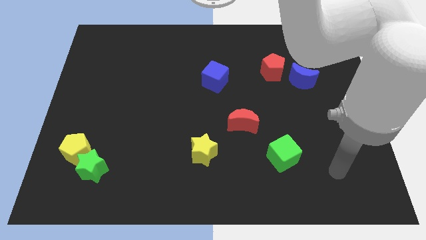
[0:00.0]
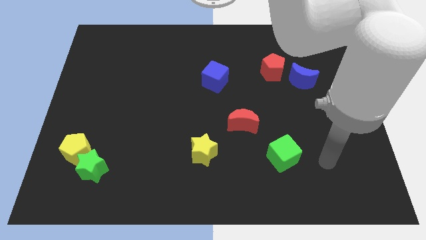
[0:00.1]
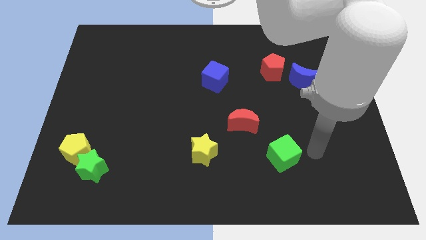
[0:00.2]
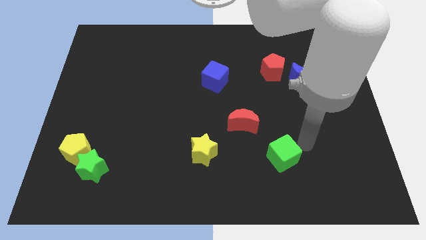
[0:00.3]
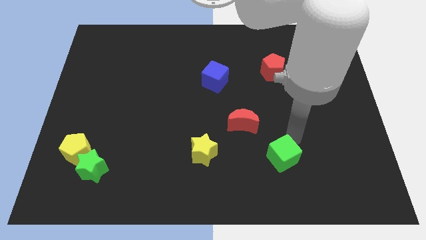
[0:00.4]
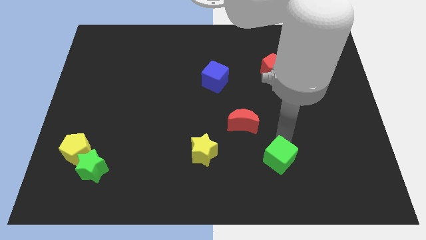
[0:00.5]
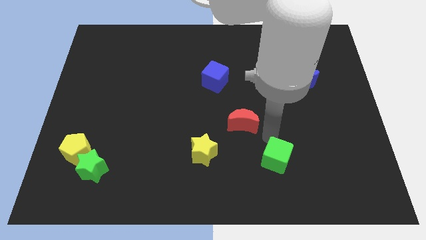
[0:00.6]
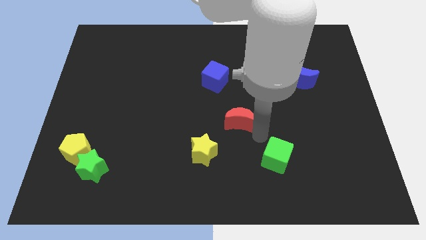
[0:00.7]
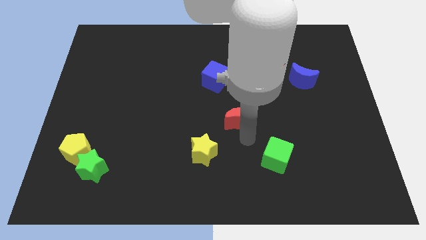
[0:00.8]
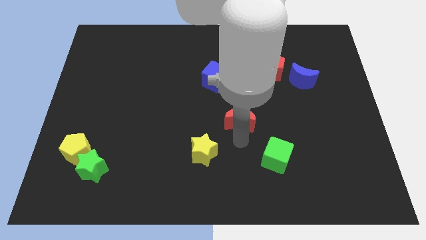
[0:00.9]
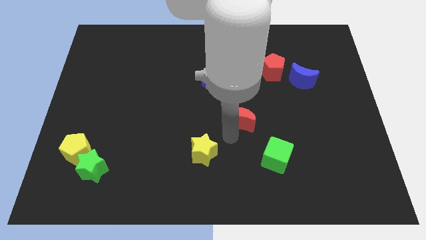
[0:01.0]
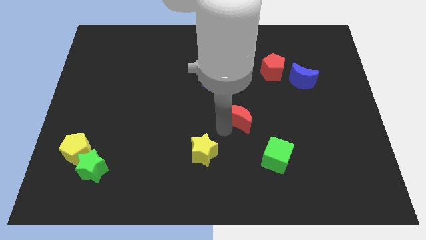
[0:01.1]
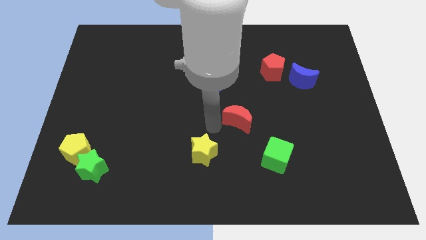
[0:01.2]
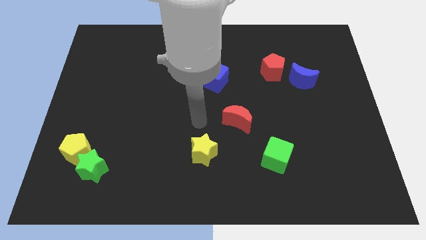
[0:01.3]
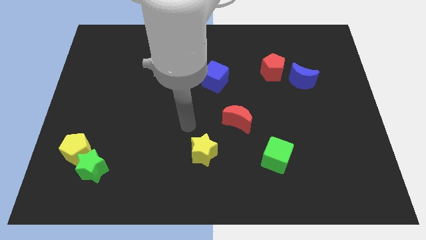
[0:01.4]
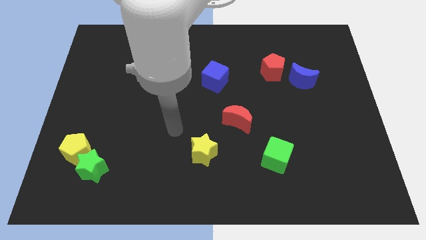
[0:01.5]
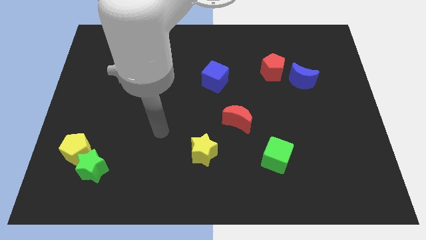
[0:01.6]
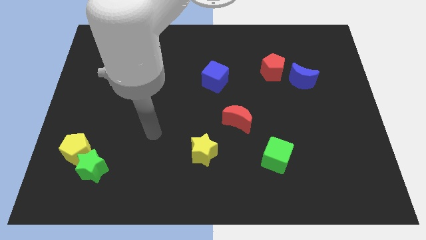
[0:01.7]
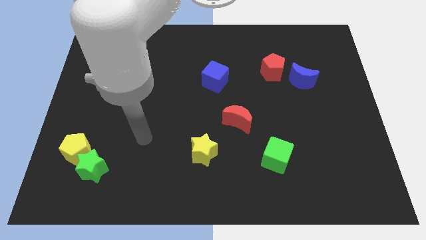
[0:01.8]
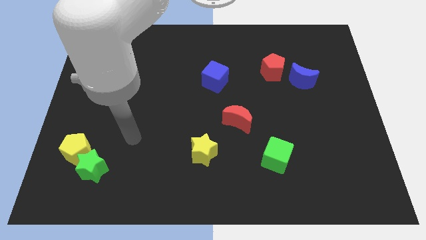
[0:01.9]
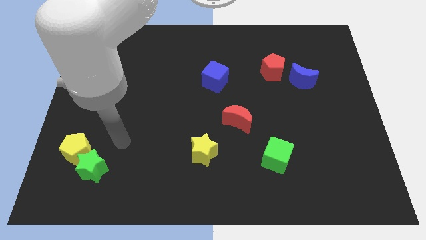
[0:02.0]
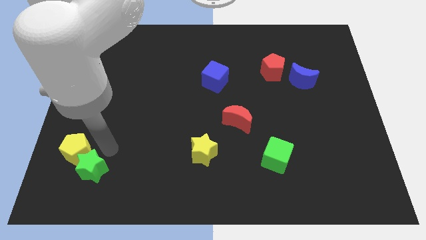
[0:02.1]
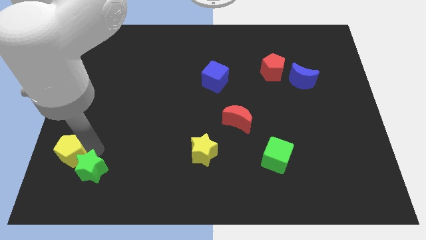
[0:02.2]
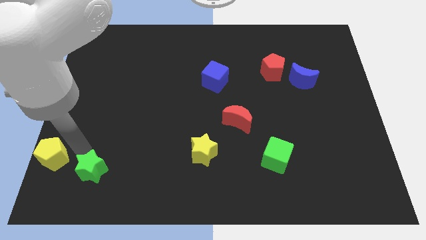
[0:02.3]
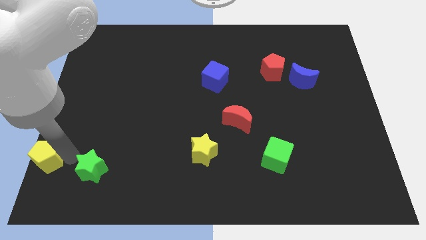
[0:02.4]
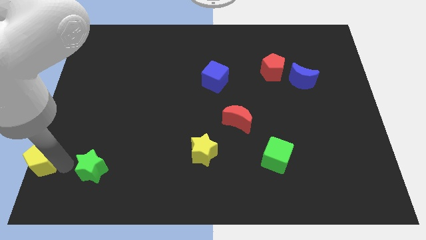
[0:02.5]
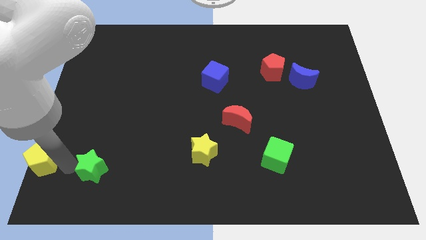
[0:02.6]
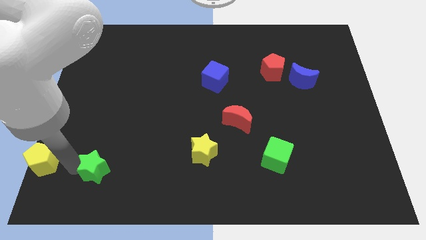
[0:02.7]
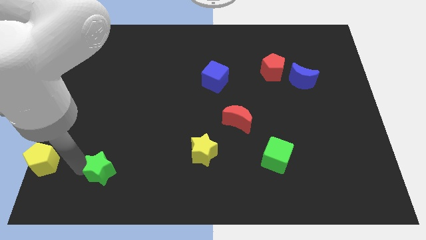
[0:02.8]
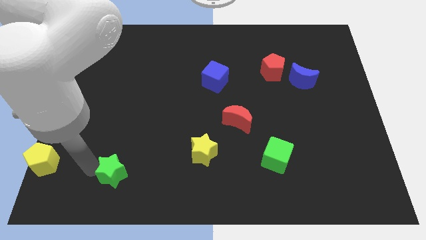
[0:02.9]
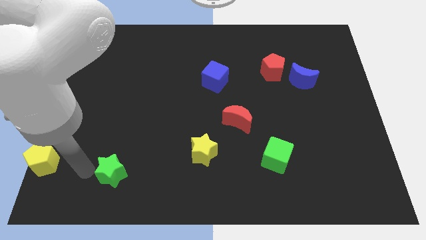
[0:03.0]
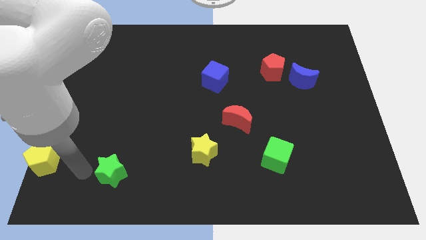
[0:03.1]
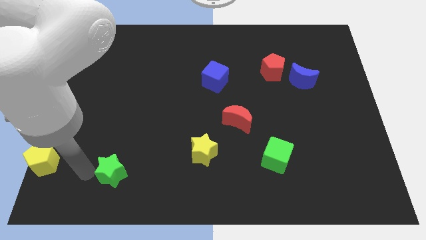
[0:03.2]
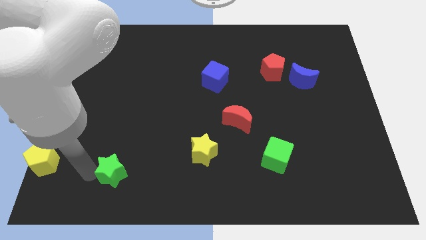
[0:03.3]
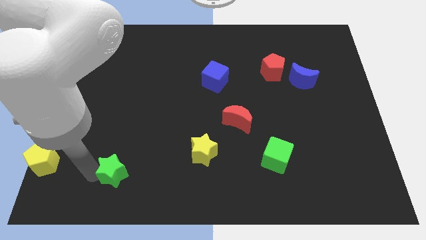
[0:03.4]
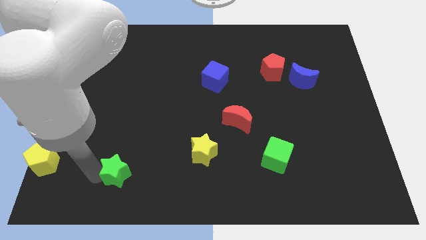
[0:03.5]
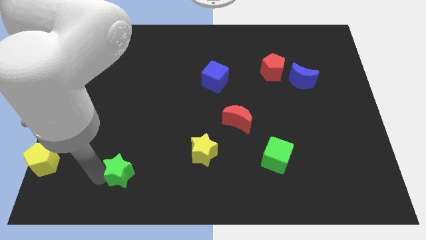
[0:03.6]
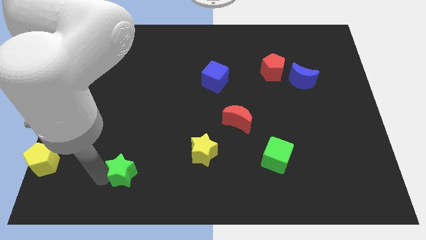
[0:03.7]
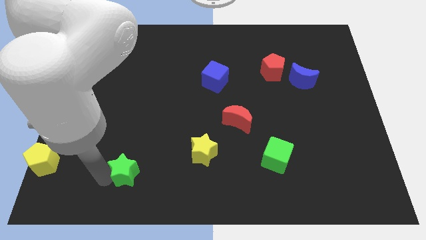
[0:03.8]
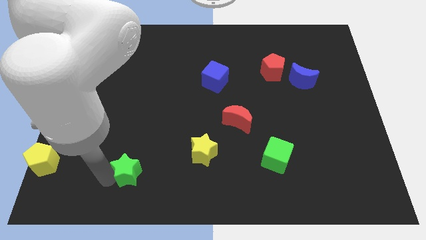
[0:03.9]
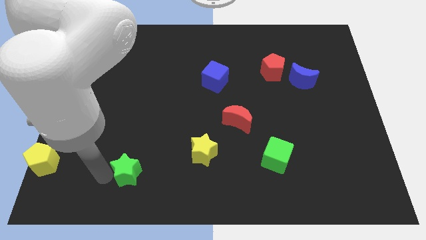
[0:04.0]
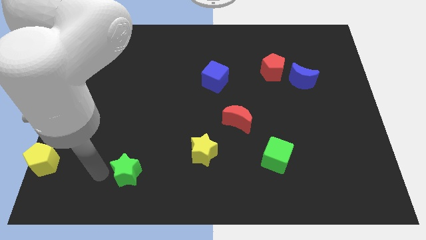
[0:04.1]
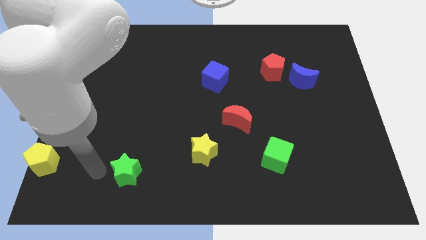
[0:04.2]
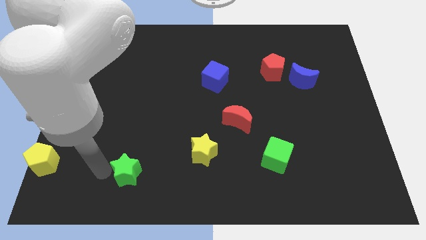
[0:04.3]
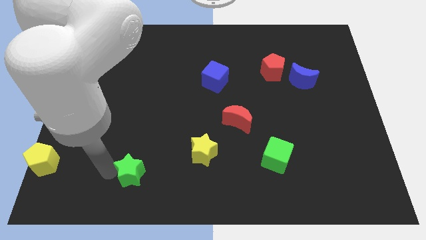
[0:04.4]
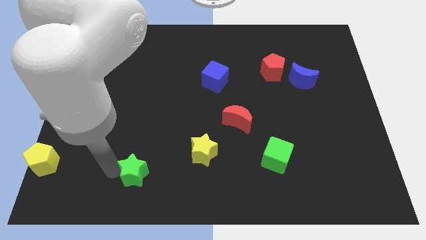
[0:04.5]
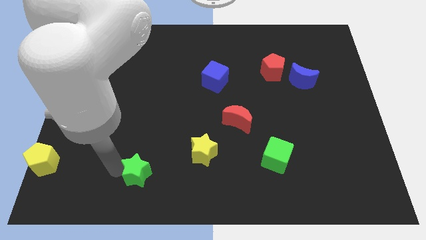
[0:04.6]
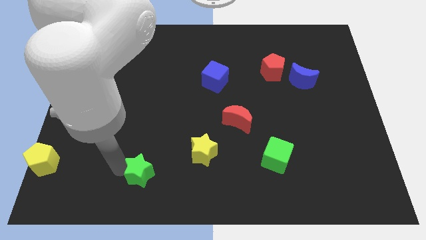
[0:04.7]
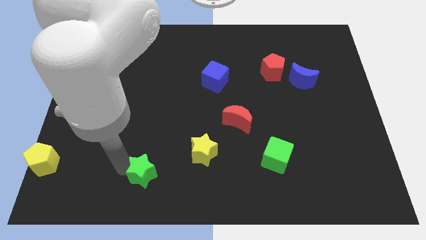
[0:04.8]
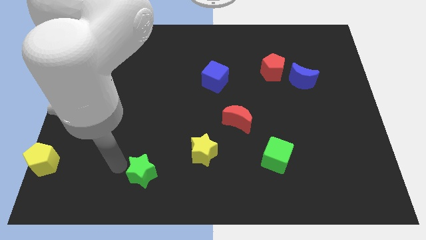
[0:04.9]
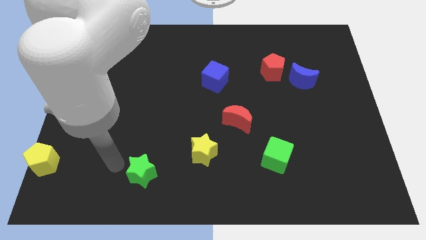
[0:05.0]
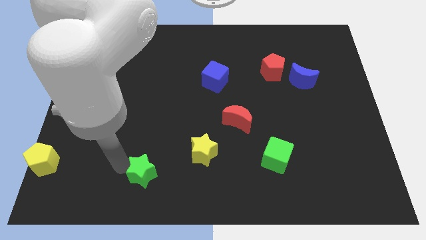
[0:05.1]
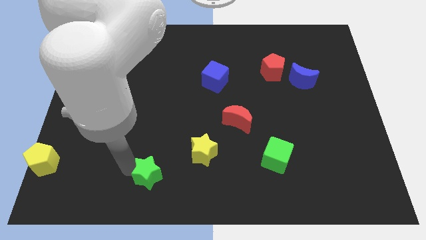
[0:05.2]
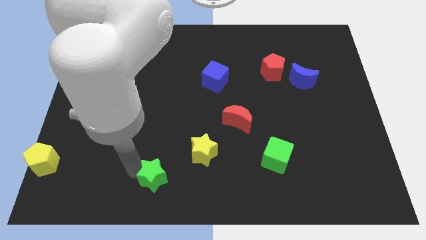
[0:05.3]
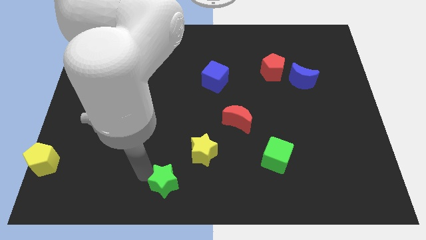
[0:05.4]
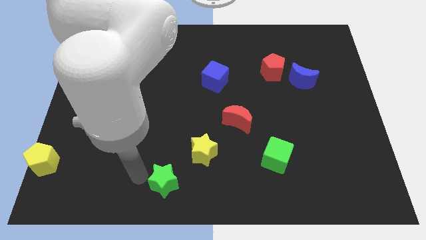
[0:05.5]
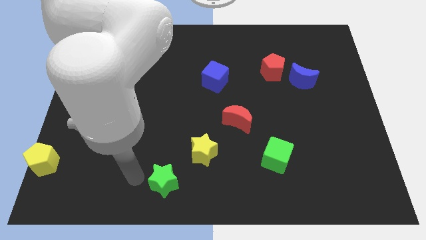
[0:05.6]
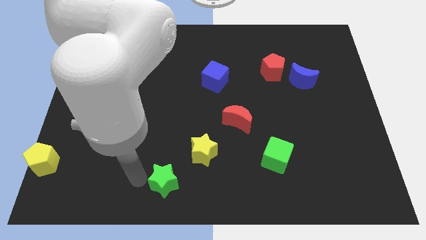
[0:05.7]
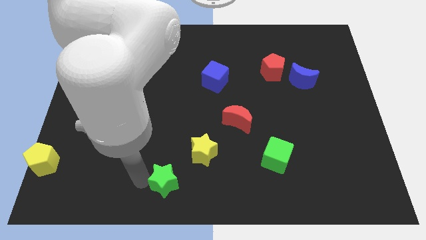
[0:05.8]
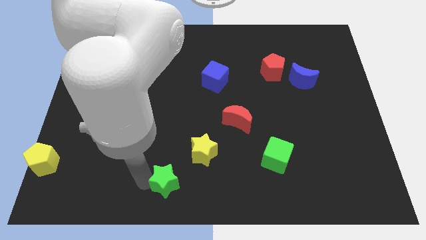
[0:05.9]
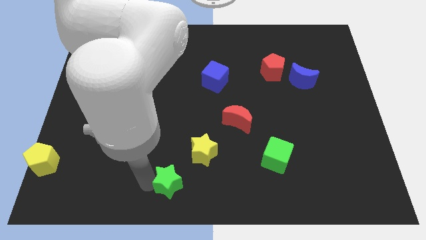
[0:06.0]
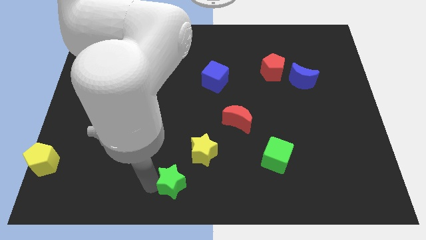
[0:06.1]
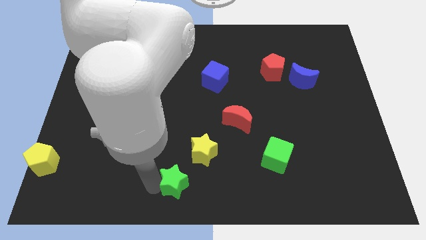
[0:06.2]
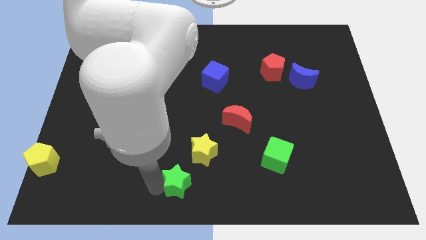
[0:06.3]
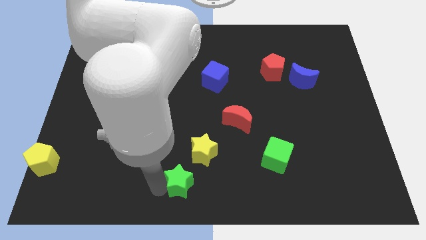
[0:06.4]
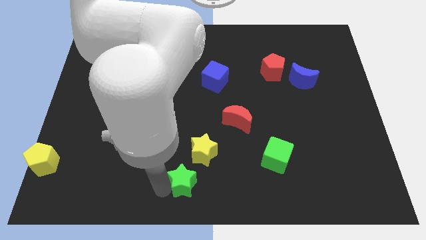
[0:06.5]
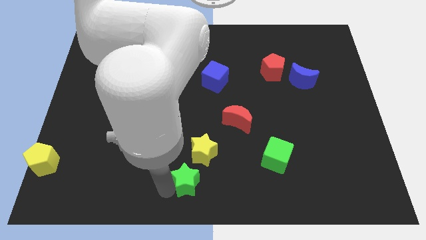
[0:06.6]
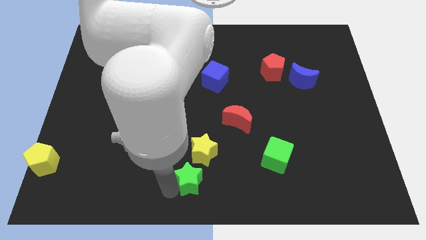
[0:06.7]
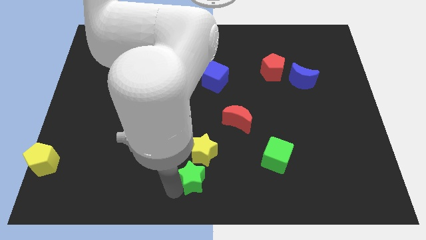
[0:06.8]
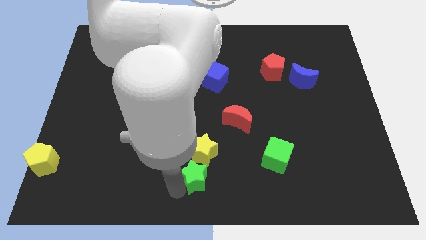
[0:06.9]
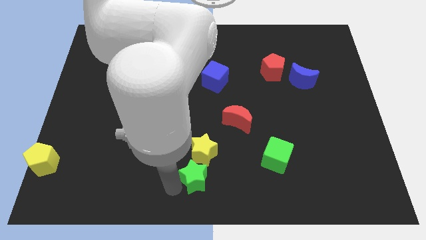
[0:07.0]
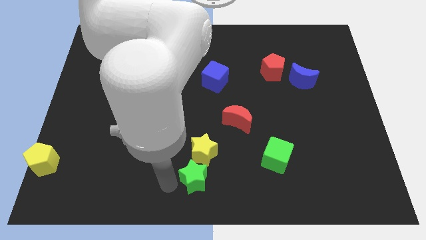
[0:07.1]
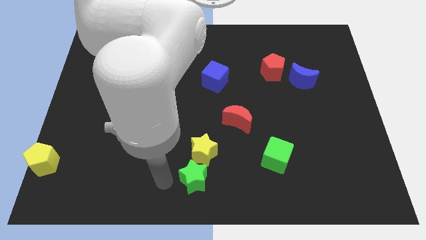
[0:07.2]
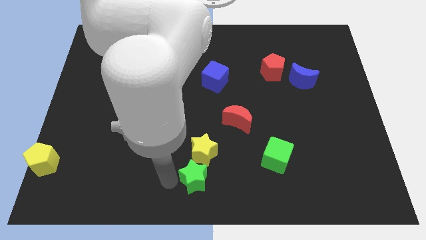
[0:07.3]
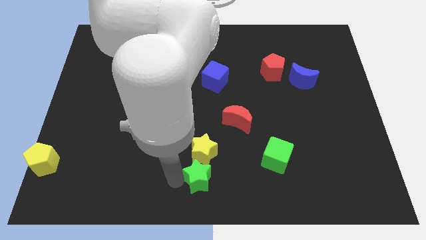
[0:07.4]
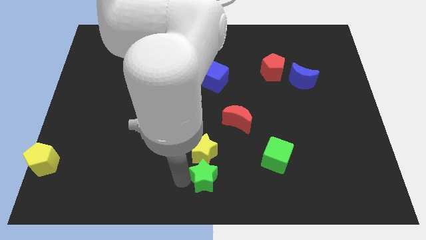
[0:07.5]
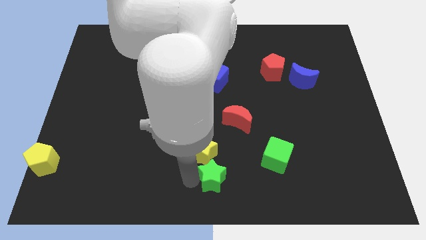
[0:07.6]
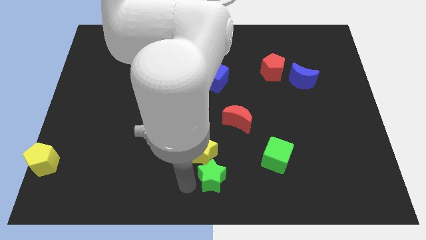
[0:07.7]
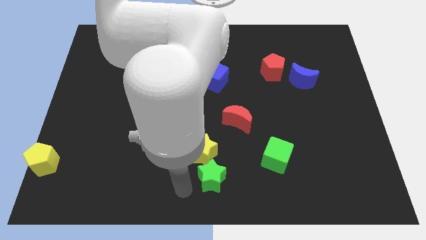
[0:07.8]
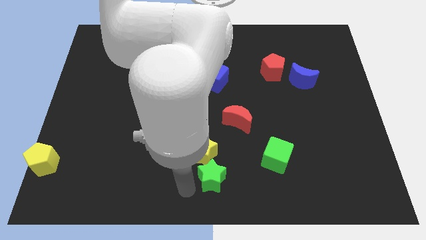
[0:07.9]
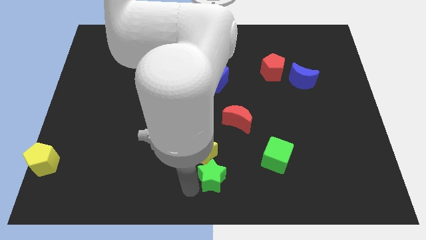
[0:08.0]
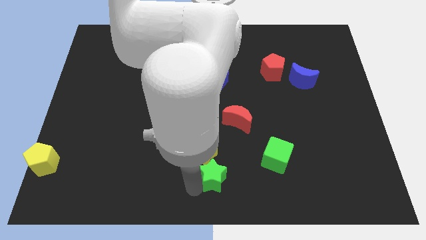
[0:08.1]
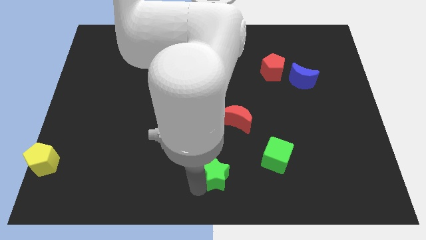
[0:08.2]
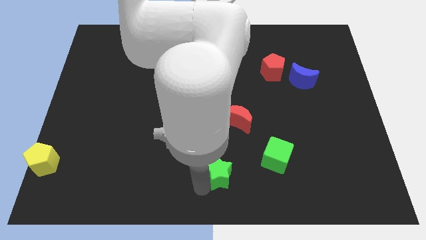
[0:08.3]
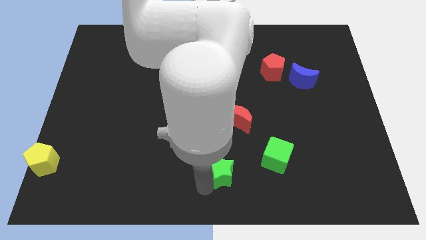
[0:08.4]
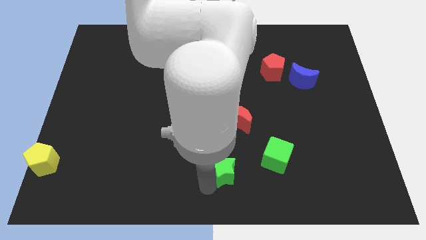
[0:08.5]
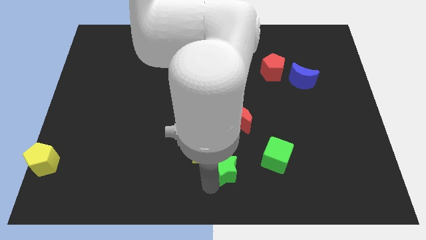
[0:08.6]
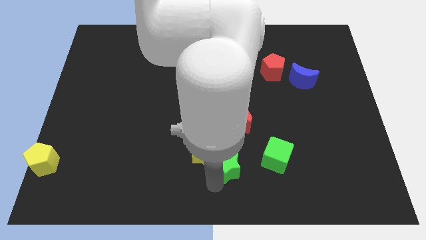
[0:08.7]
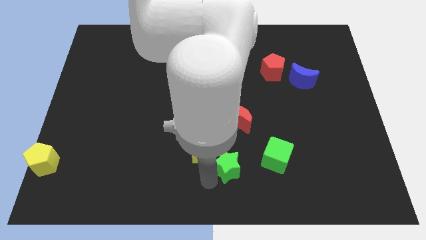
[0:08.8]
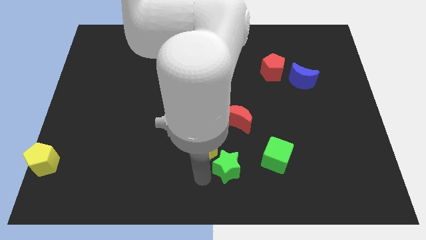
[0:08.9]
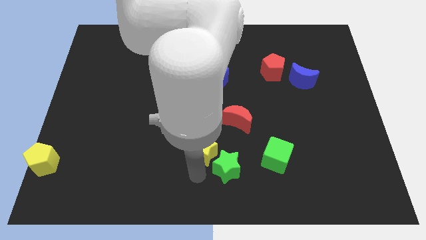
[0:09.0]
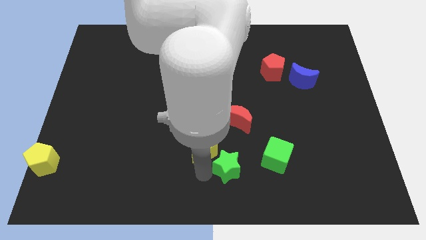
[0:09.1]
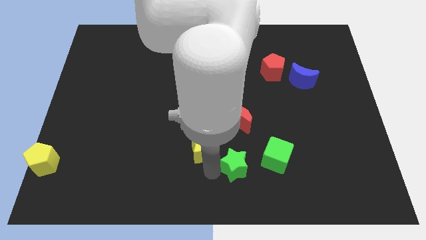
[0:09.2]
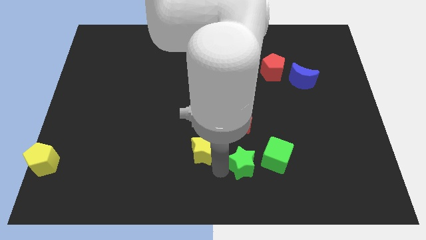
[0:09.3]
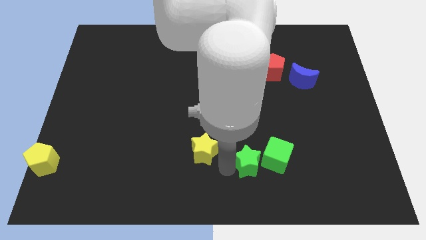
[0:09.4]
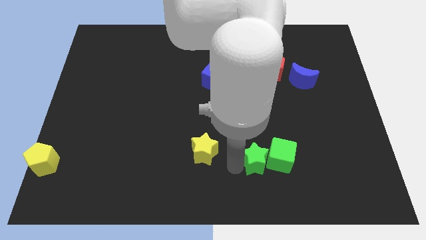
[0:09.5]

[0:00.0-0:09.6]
put the green star to the green cube
